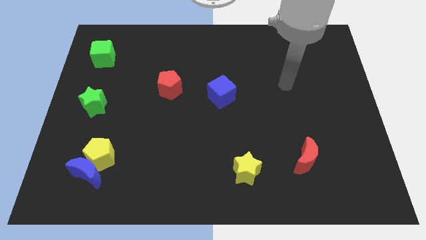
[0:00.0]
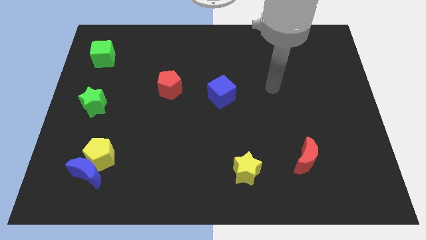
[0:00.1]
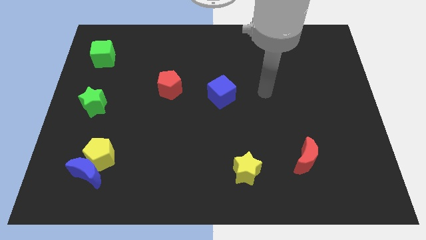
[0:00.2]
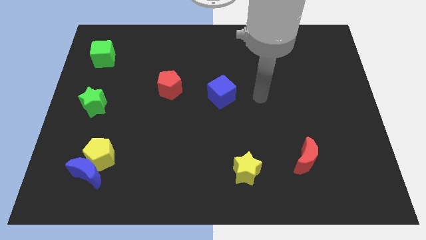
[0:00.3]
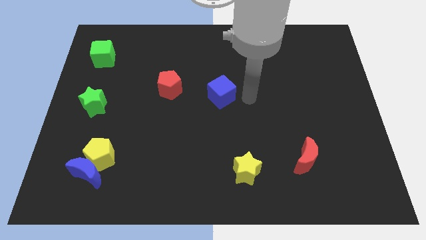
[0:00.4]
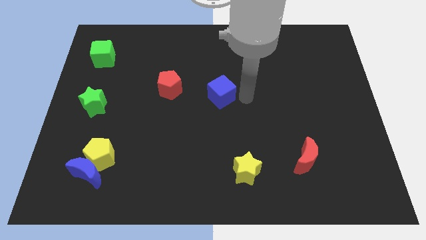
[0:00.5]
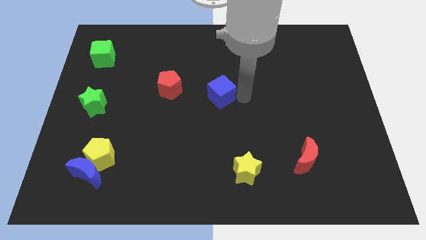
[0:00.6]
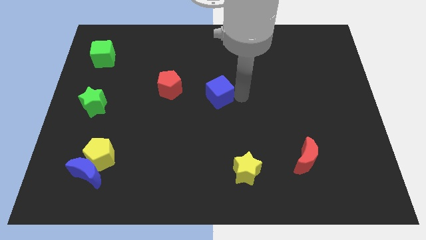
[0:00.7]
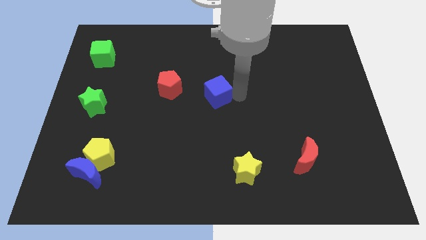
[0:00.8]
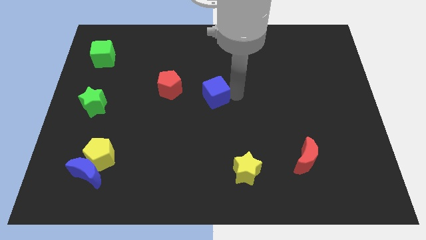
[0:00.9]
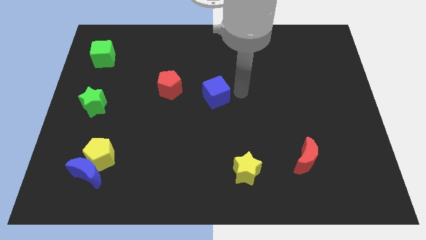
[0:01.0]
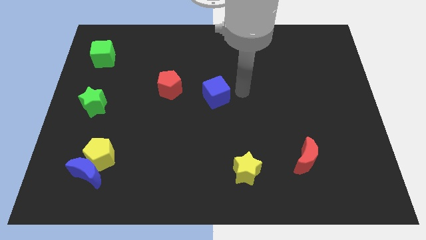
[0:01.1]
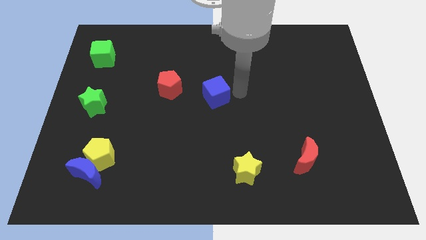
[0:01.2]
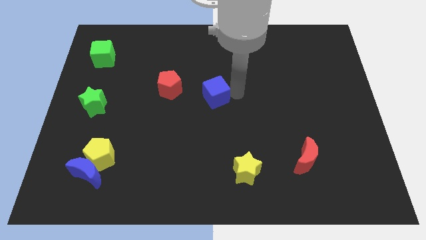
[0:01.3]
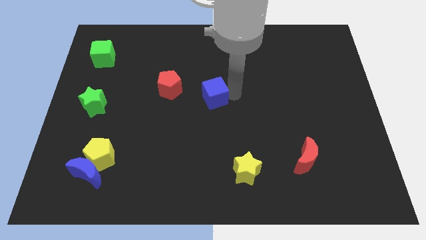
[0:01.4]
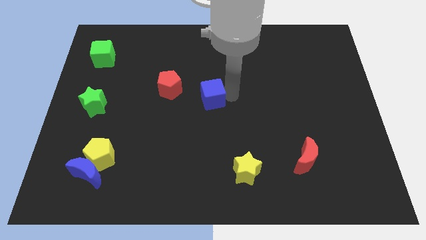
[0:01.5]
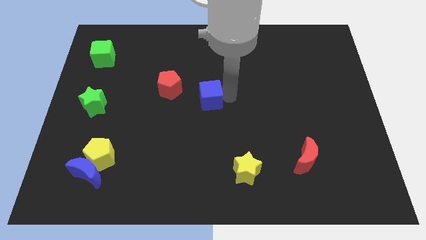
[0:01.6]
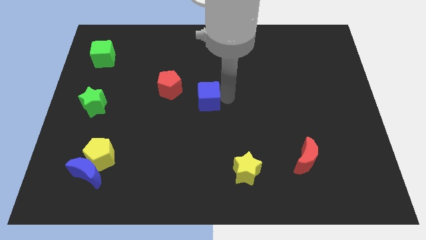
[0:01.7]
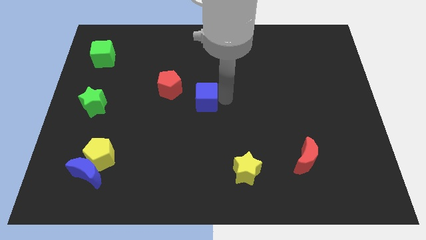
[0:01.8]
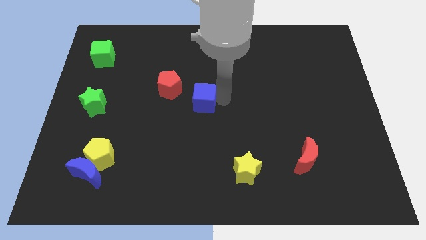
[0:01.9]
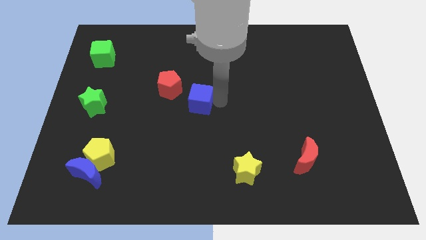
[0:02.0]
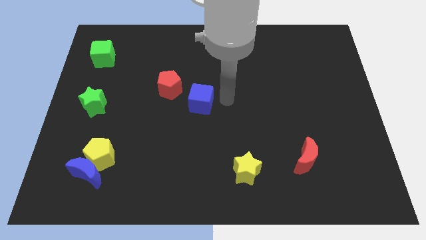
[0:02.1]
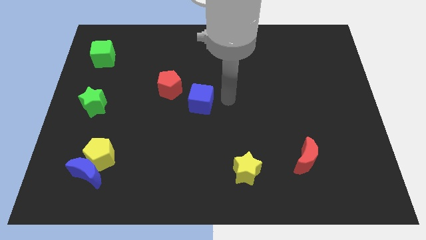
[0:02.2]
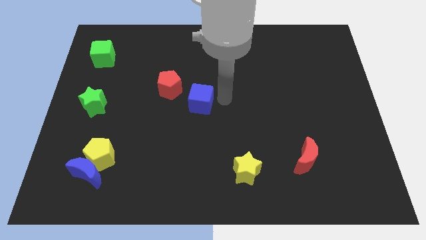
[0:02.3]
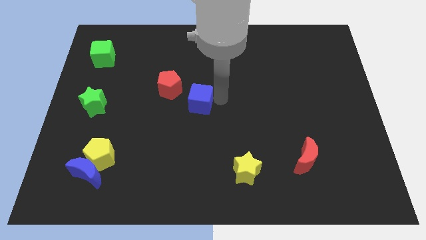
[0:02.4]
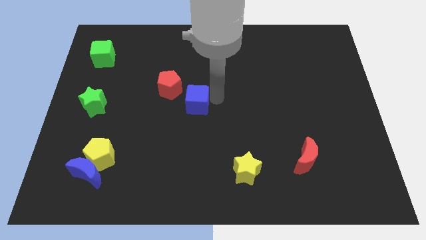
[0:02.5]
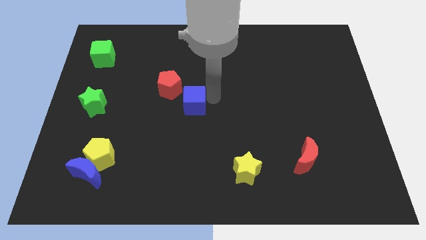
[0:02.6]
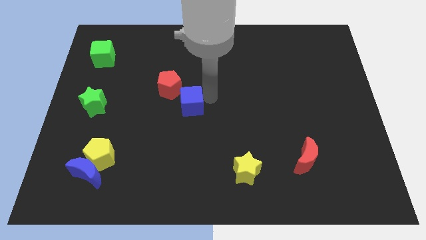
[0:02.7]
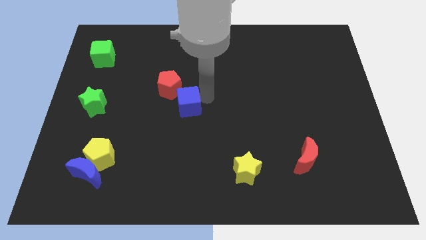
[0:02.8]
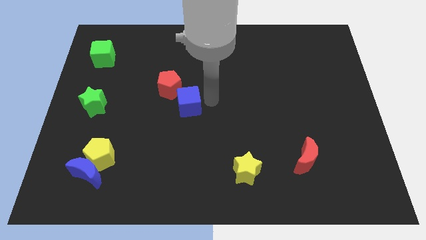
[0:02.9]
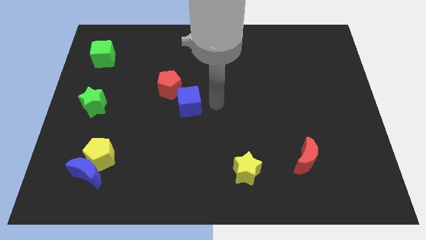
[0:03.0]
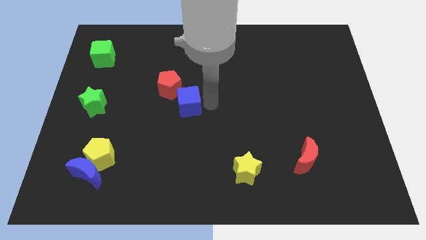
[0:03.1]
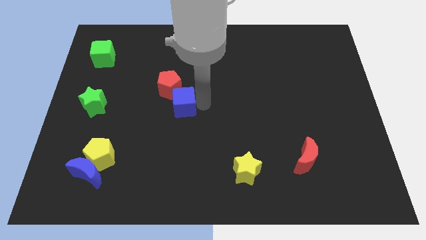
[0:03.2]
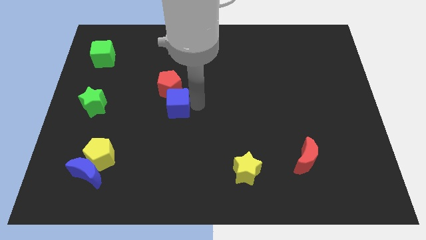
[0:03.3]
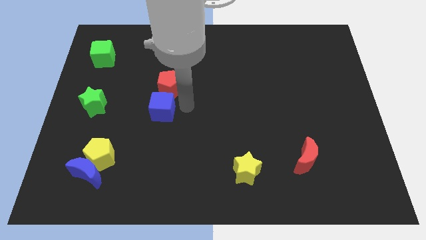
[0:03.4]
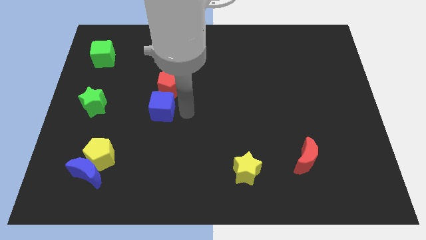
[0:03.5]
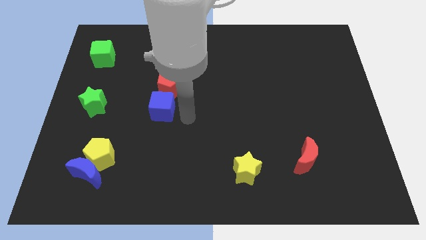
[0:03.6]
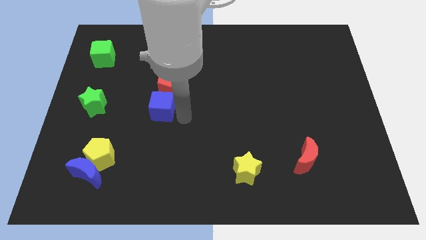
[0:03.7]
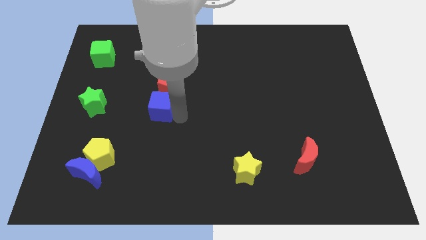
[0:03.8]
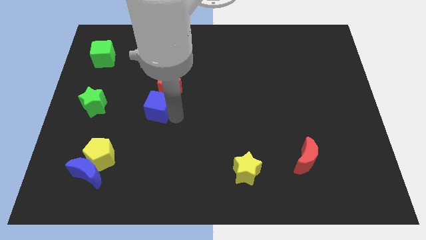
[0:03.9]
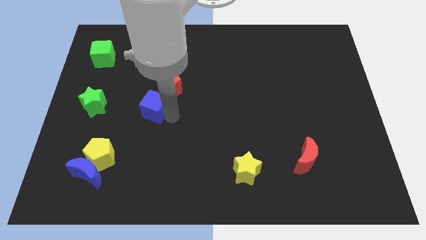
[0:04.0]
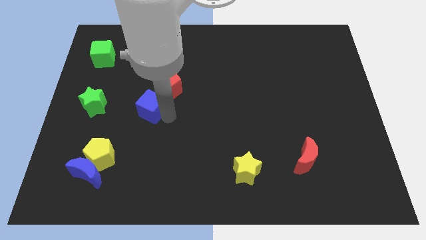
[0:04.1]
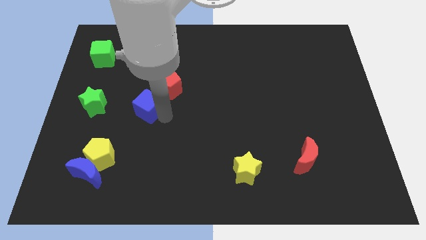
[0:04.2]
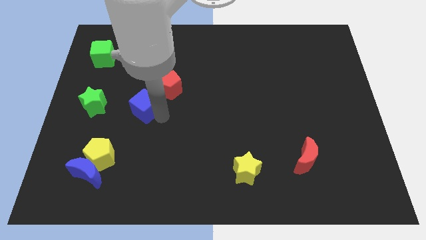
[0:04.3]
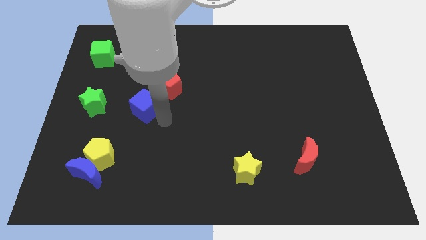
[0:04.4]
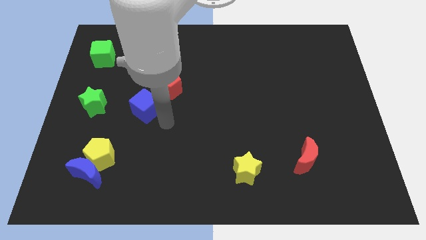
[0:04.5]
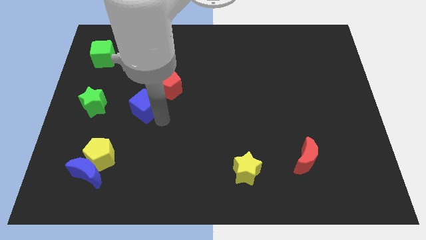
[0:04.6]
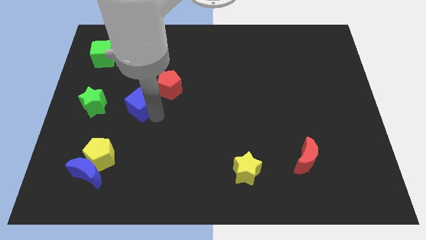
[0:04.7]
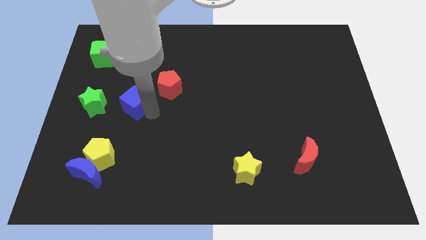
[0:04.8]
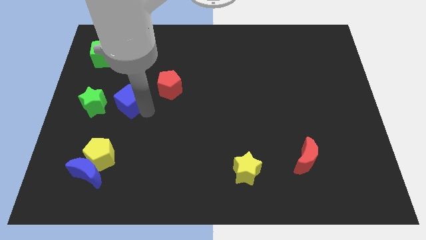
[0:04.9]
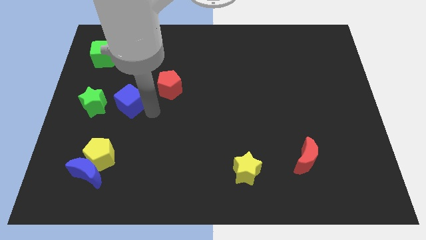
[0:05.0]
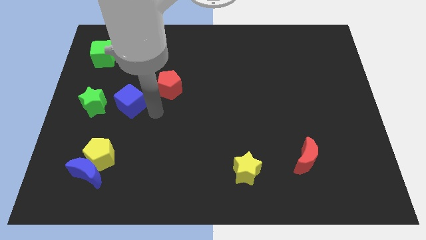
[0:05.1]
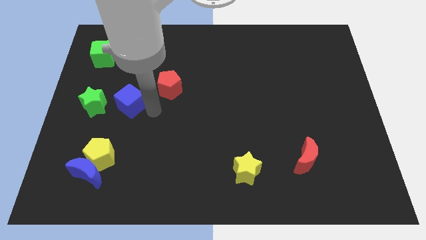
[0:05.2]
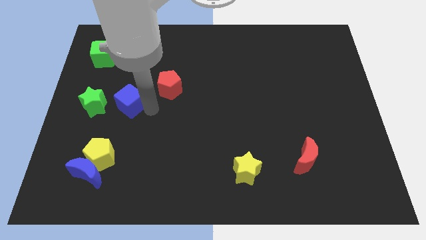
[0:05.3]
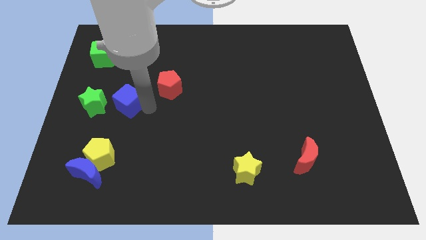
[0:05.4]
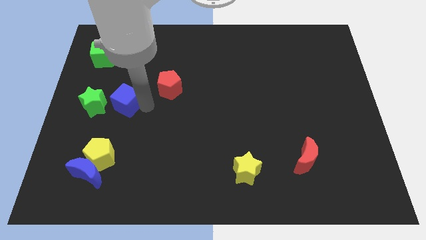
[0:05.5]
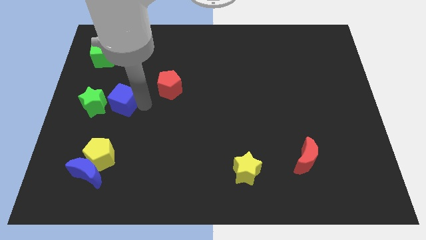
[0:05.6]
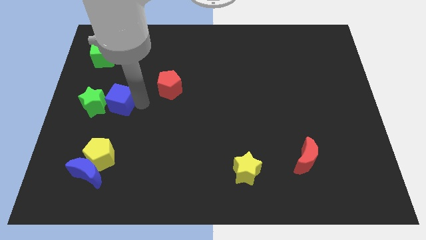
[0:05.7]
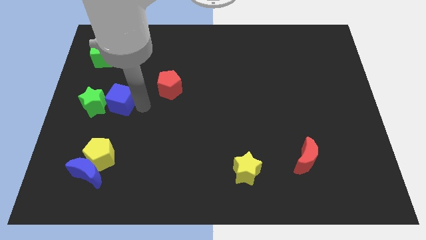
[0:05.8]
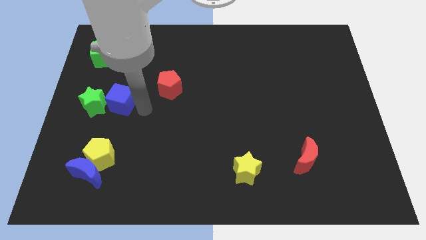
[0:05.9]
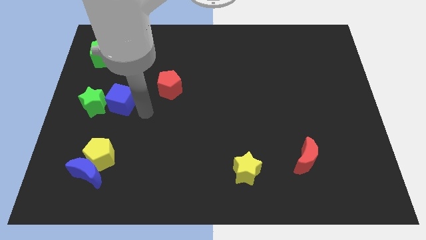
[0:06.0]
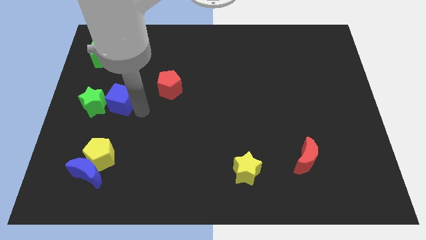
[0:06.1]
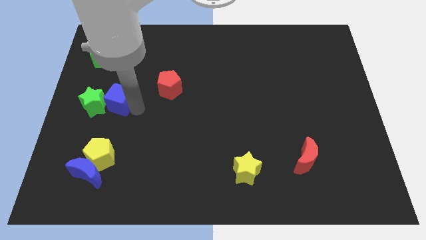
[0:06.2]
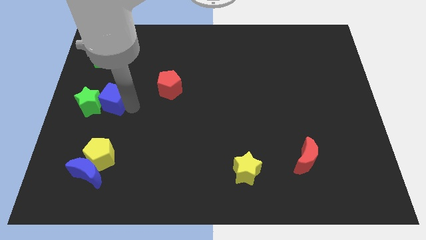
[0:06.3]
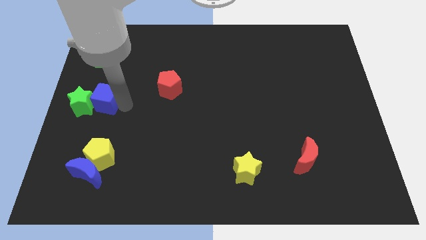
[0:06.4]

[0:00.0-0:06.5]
push the blue cube to the left side of the board

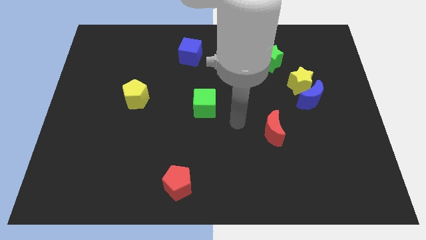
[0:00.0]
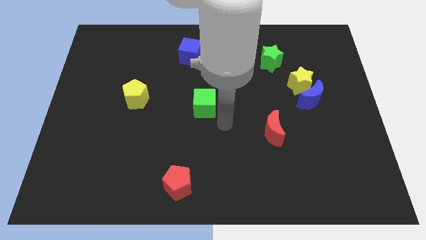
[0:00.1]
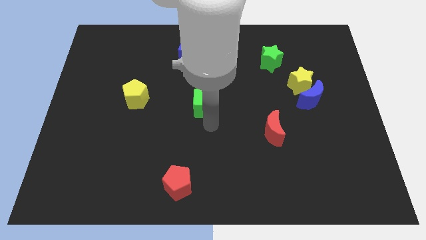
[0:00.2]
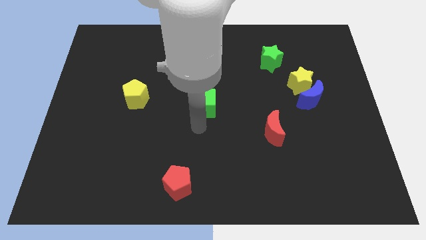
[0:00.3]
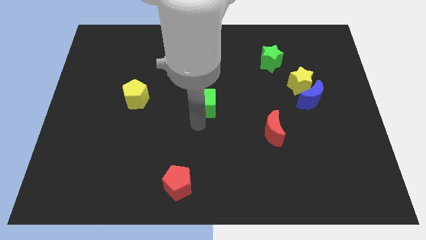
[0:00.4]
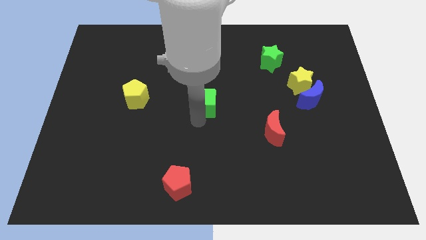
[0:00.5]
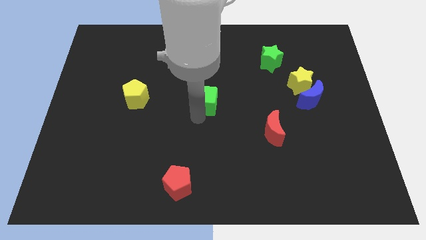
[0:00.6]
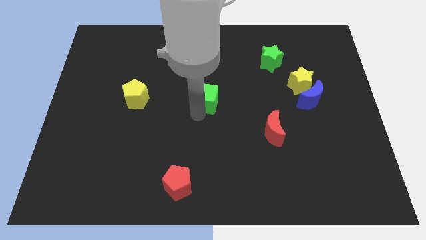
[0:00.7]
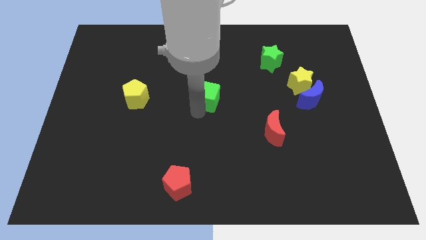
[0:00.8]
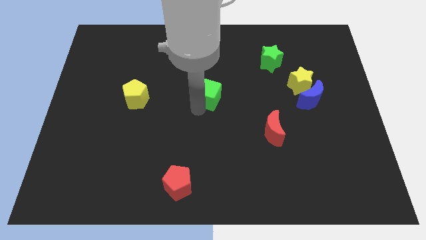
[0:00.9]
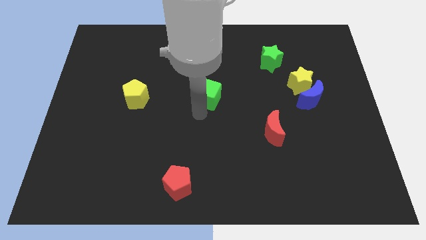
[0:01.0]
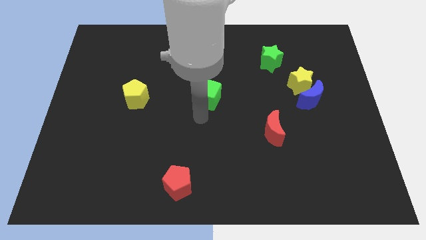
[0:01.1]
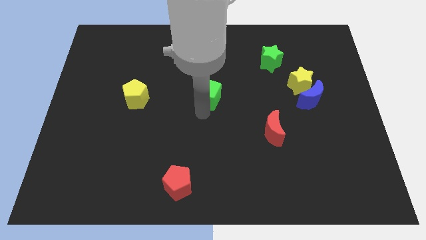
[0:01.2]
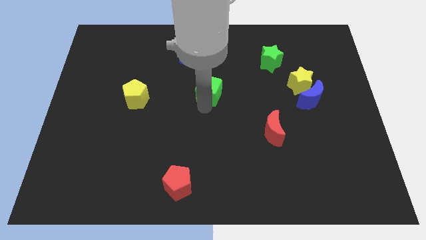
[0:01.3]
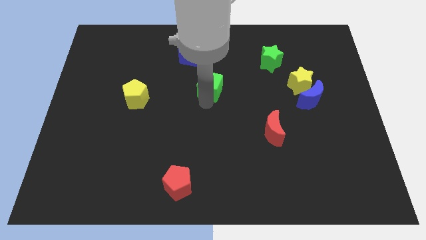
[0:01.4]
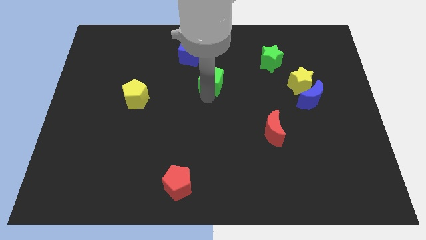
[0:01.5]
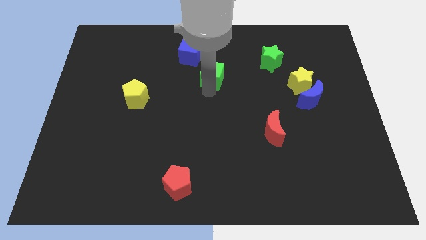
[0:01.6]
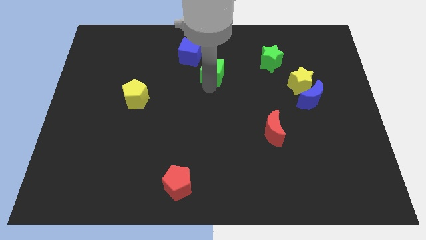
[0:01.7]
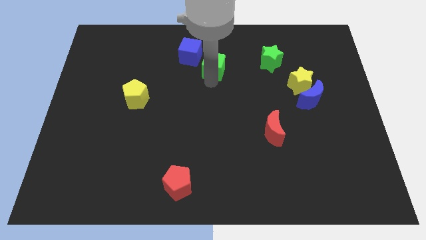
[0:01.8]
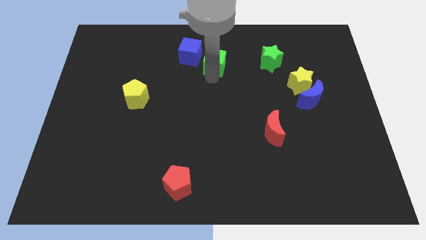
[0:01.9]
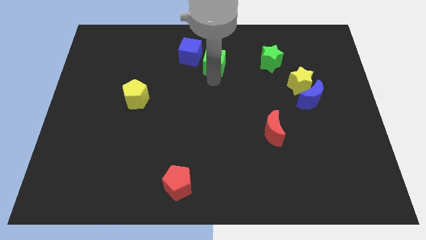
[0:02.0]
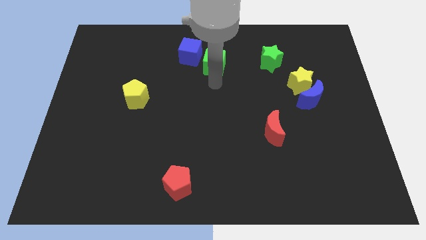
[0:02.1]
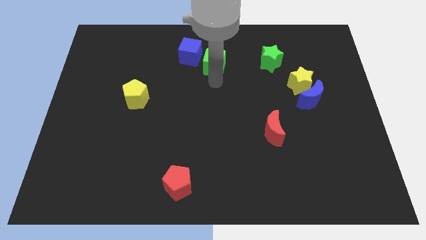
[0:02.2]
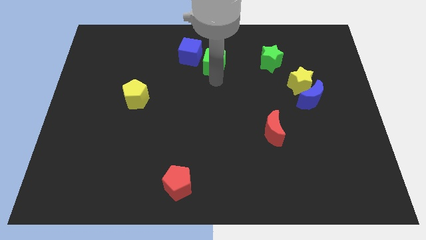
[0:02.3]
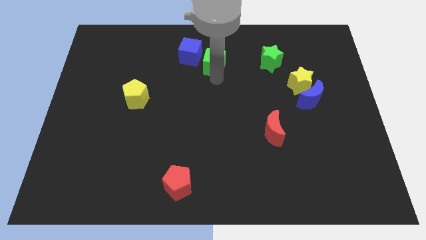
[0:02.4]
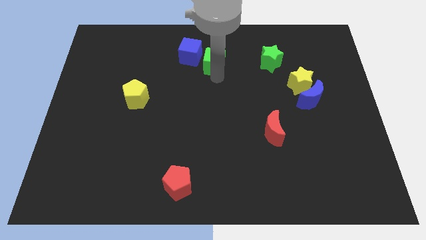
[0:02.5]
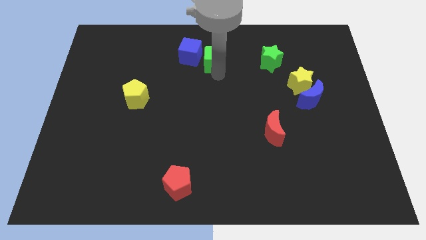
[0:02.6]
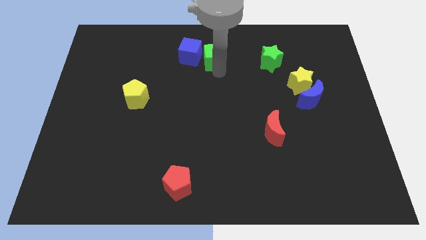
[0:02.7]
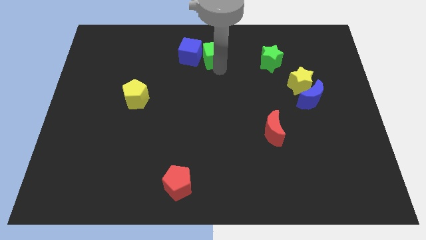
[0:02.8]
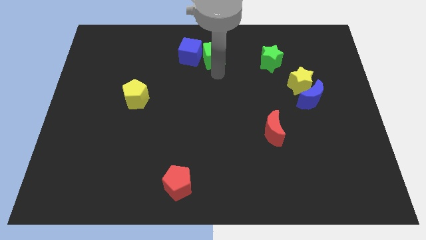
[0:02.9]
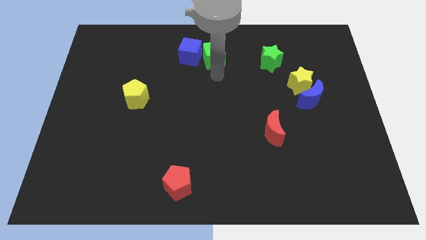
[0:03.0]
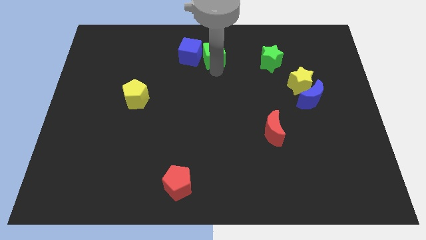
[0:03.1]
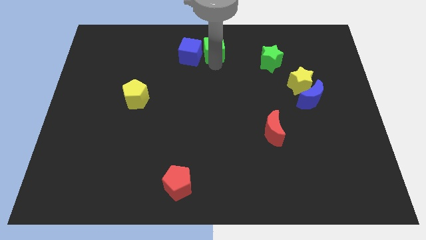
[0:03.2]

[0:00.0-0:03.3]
move the green cube to the top side
